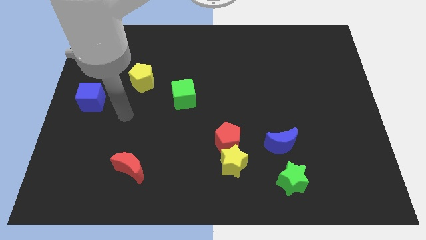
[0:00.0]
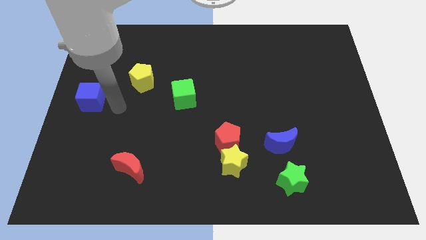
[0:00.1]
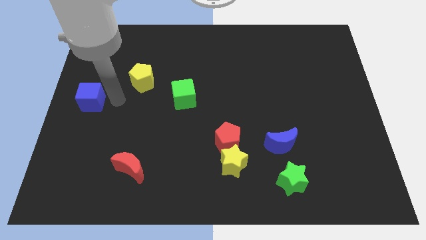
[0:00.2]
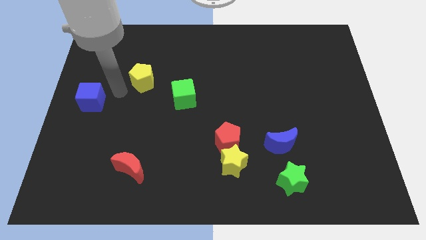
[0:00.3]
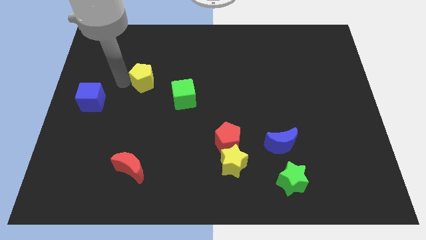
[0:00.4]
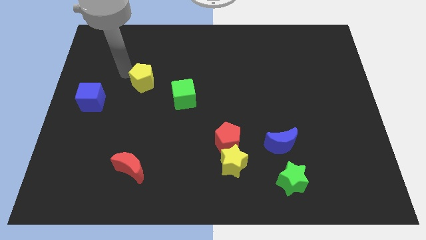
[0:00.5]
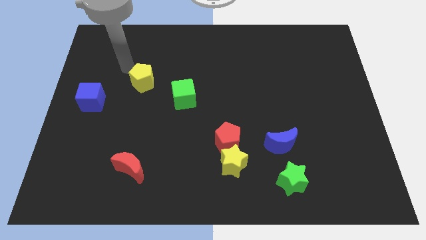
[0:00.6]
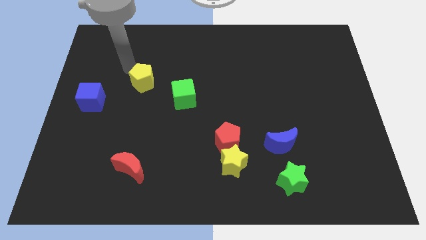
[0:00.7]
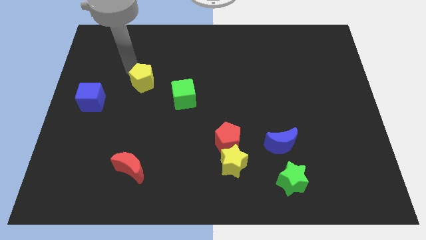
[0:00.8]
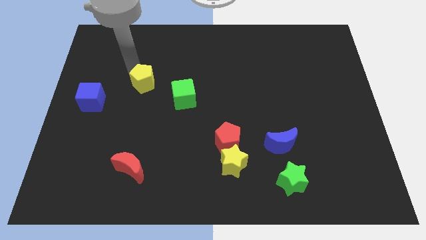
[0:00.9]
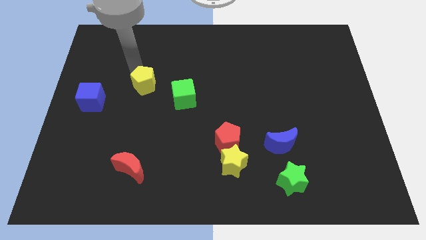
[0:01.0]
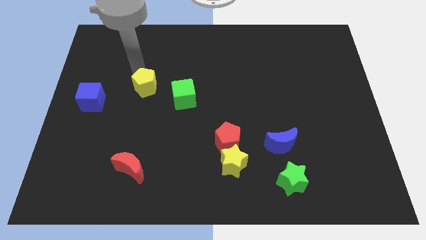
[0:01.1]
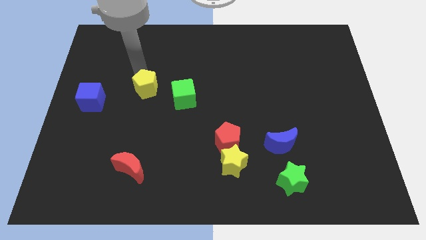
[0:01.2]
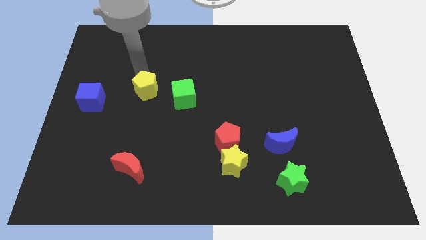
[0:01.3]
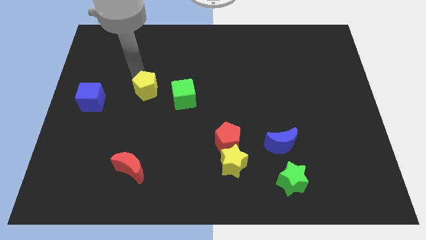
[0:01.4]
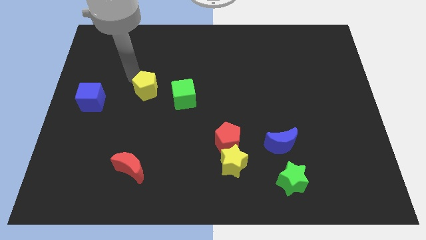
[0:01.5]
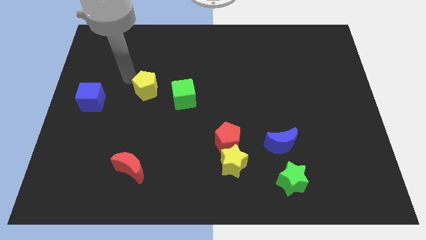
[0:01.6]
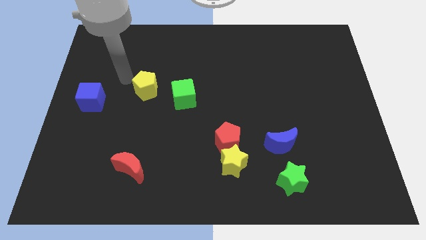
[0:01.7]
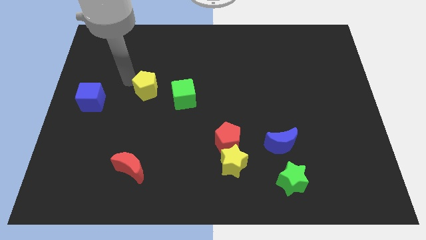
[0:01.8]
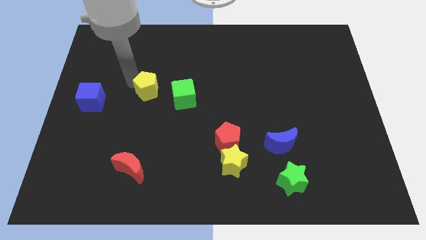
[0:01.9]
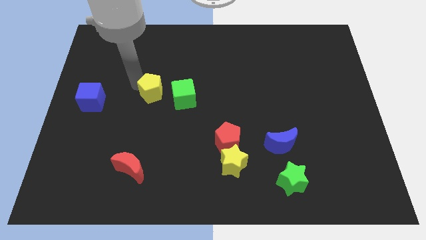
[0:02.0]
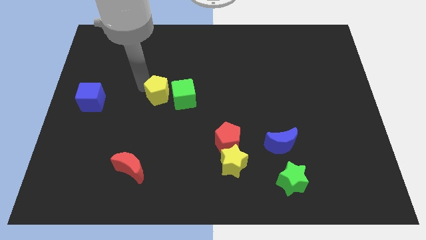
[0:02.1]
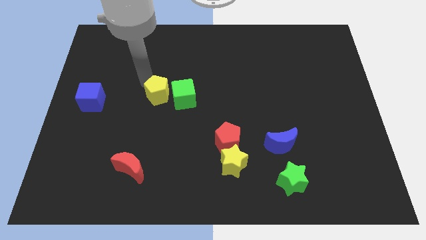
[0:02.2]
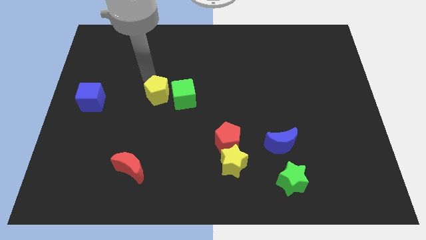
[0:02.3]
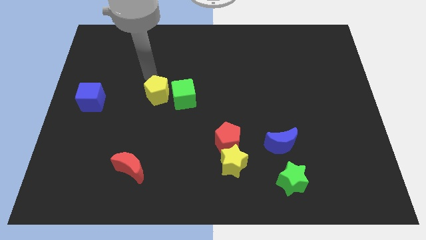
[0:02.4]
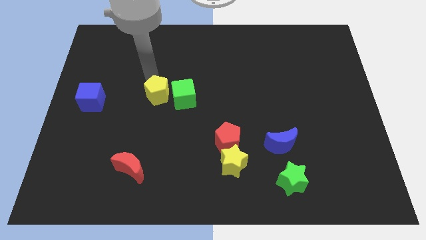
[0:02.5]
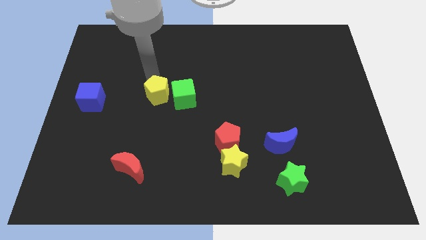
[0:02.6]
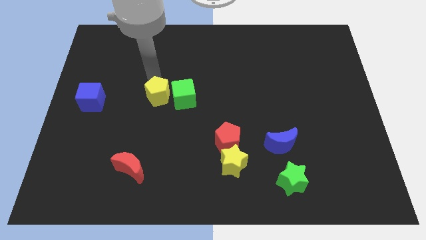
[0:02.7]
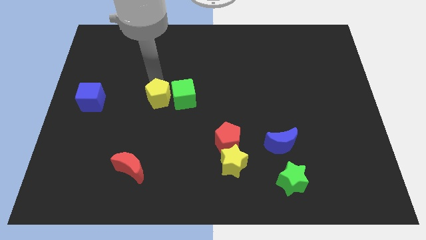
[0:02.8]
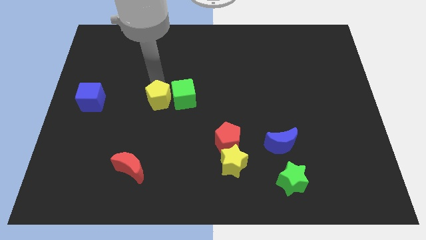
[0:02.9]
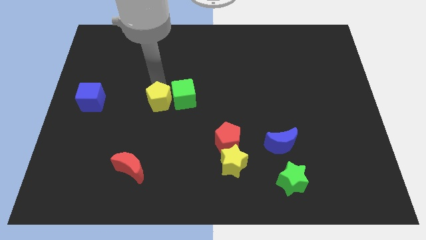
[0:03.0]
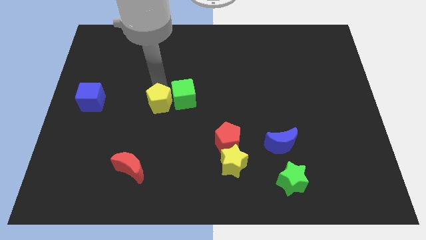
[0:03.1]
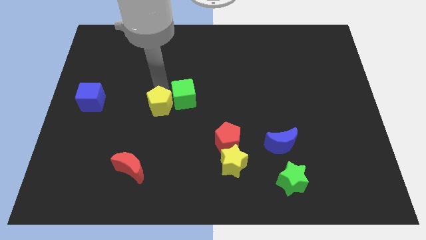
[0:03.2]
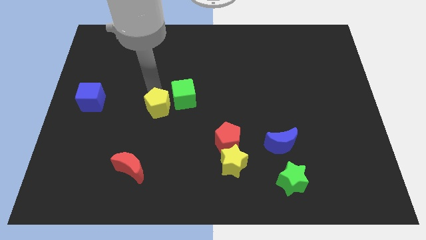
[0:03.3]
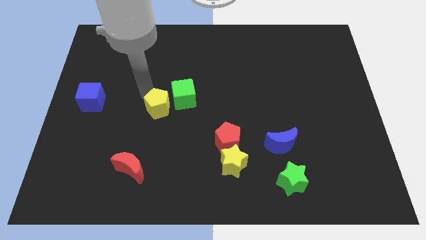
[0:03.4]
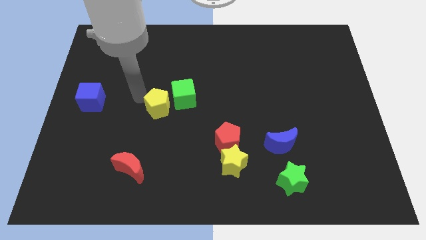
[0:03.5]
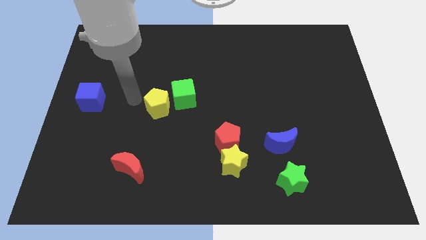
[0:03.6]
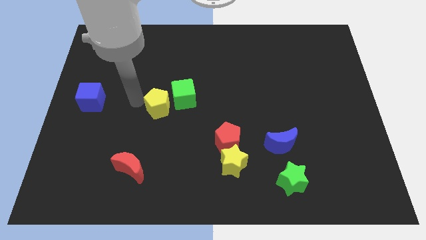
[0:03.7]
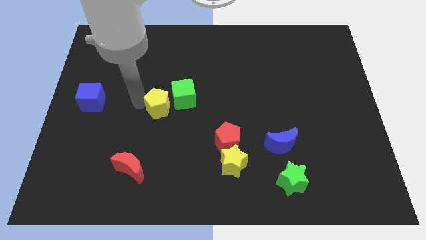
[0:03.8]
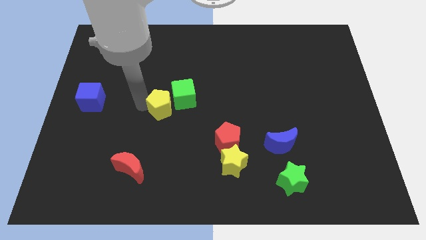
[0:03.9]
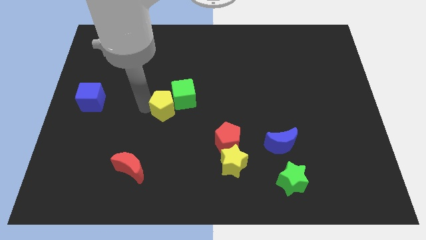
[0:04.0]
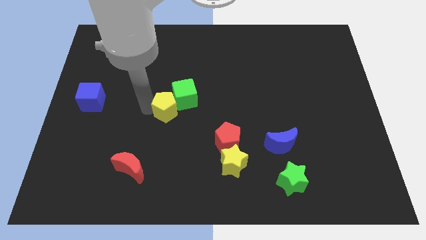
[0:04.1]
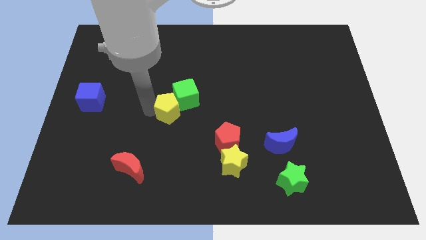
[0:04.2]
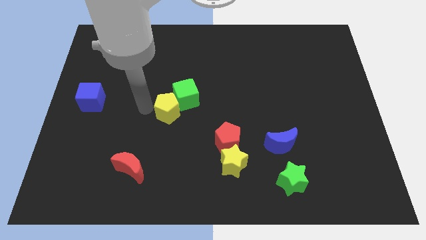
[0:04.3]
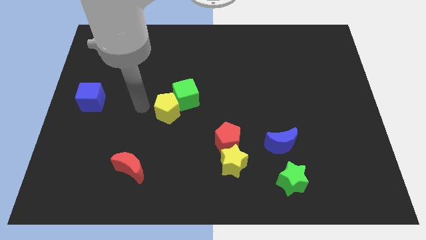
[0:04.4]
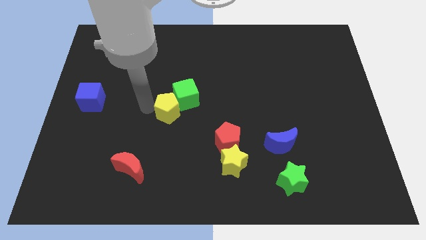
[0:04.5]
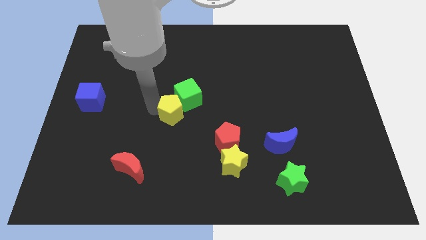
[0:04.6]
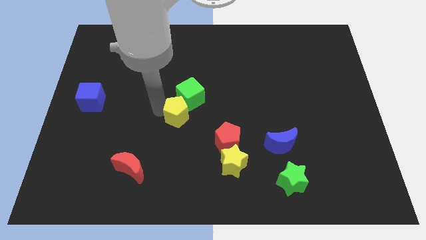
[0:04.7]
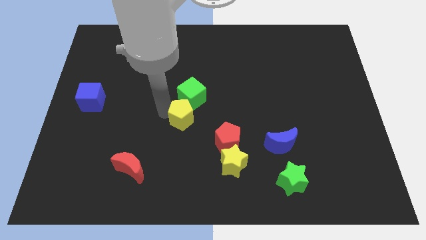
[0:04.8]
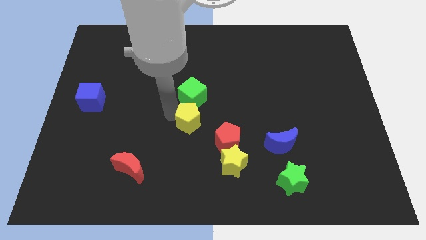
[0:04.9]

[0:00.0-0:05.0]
put the yellow pentagon to the top left side of the red pentagon

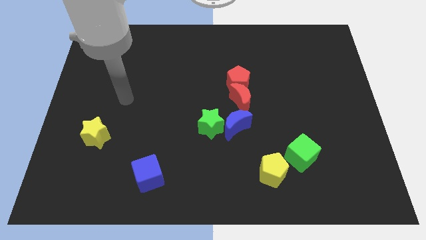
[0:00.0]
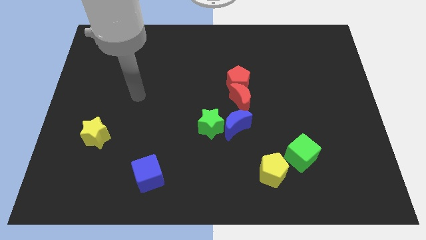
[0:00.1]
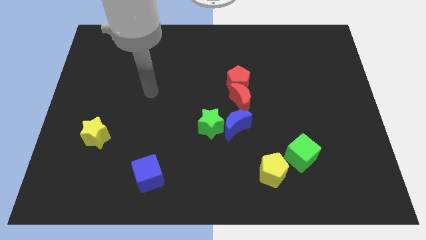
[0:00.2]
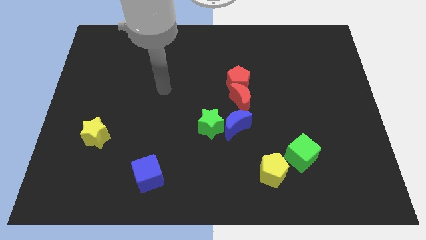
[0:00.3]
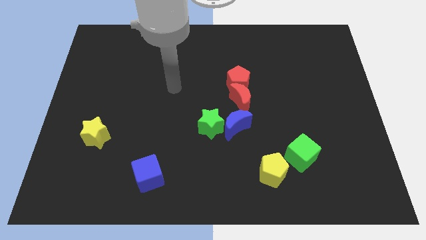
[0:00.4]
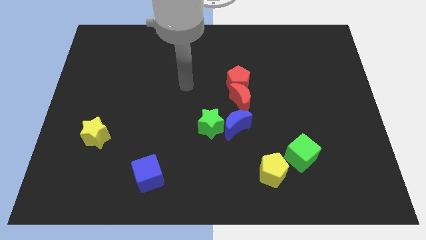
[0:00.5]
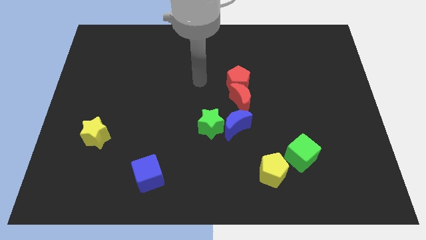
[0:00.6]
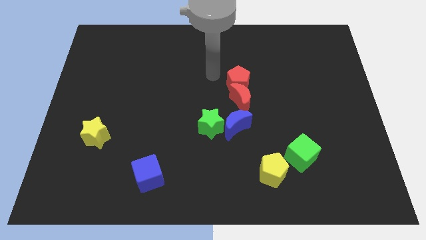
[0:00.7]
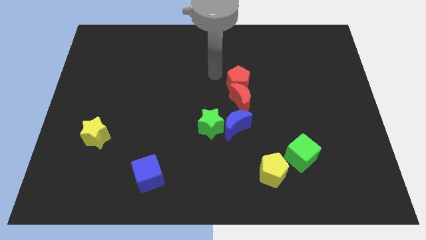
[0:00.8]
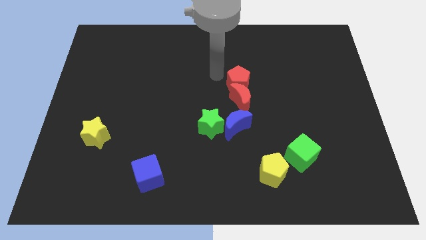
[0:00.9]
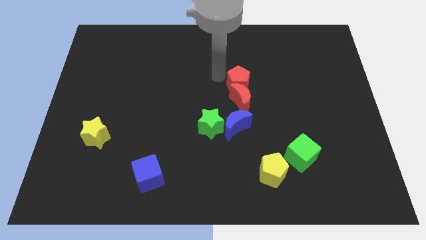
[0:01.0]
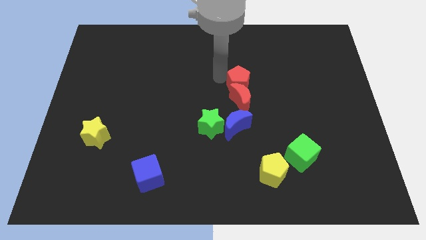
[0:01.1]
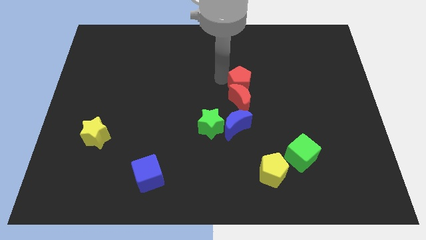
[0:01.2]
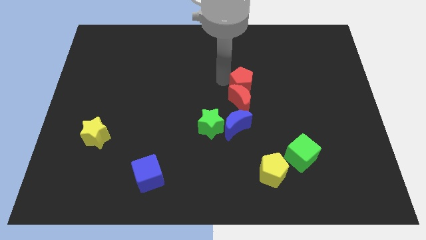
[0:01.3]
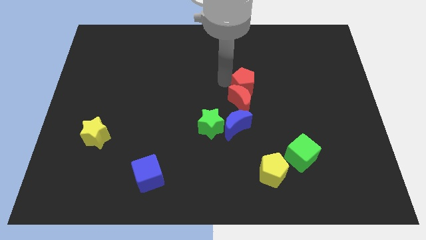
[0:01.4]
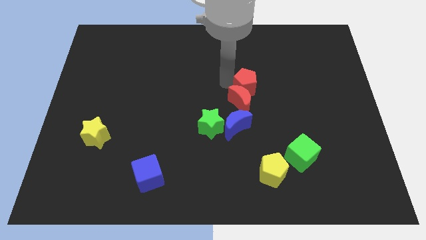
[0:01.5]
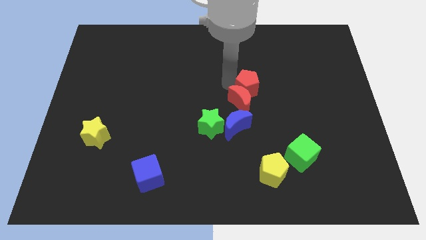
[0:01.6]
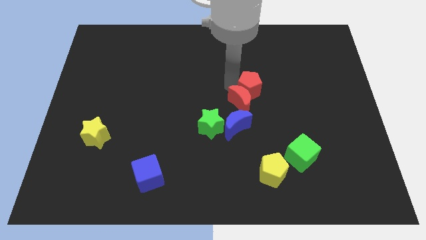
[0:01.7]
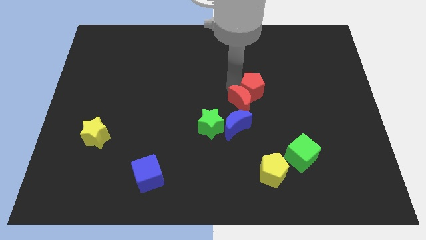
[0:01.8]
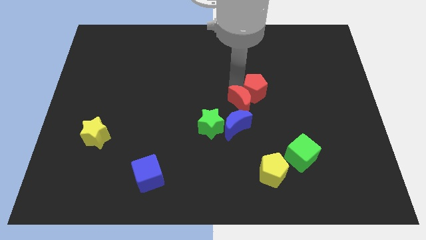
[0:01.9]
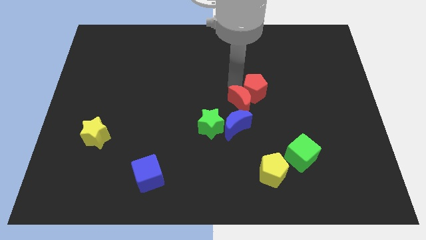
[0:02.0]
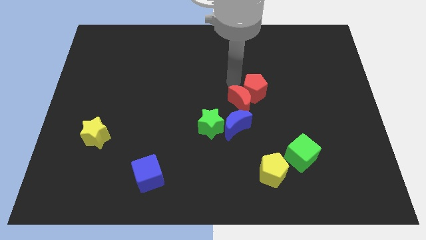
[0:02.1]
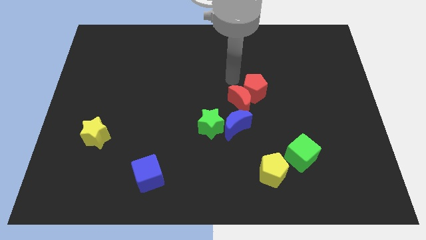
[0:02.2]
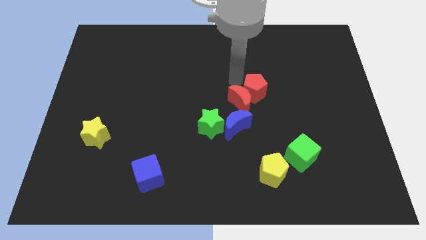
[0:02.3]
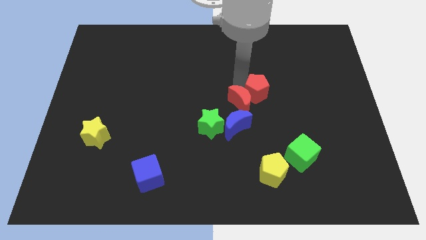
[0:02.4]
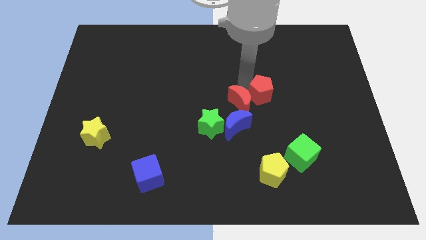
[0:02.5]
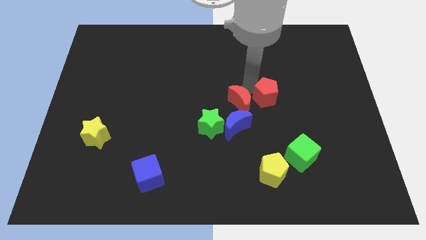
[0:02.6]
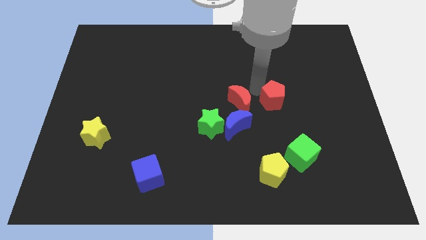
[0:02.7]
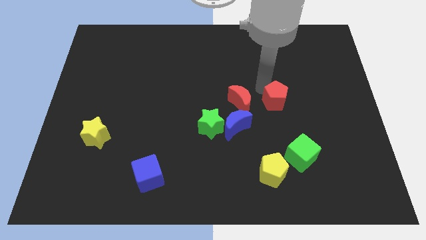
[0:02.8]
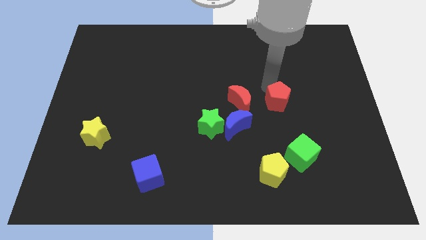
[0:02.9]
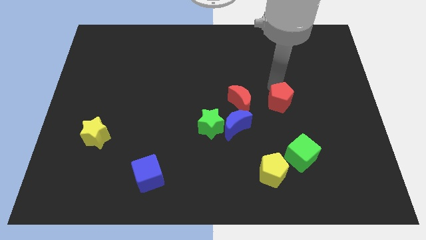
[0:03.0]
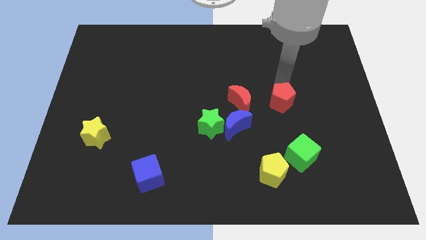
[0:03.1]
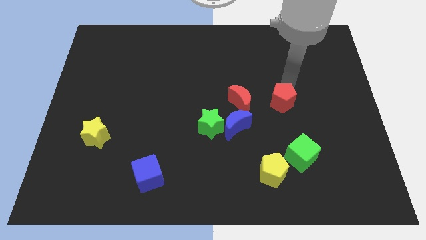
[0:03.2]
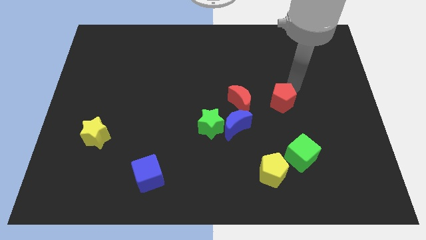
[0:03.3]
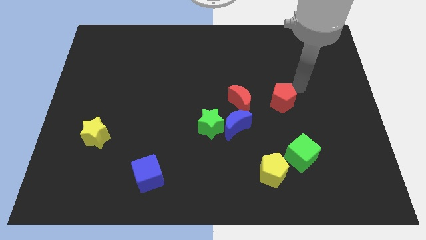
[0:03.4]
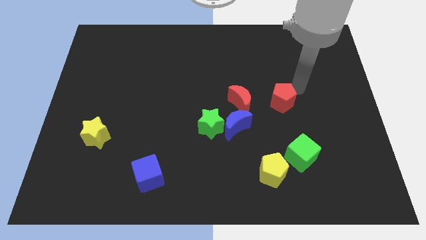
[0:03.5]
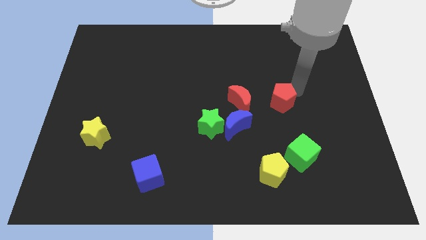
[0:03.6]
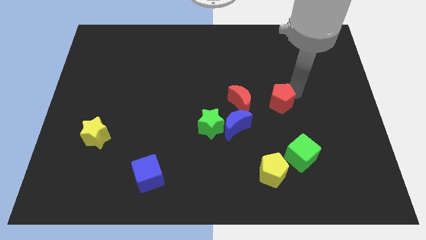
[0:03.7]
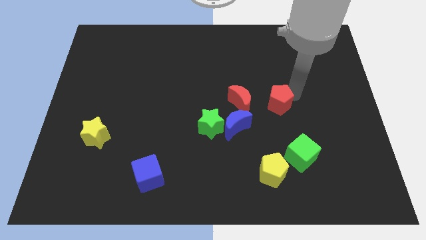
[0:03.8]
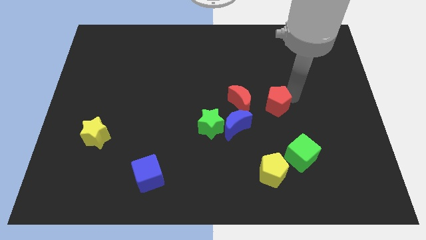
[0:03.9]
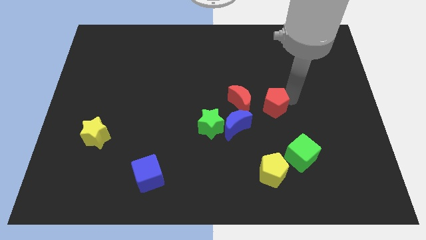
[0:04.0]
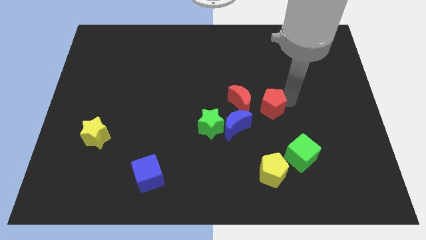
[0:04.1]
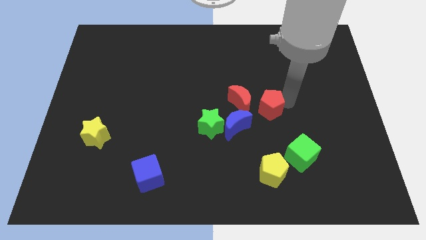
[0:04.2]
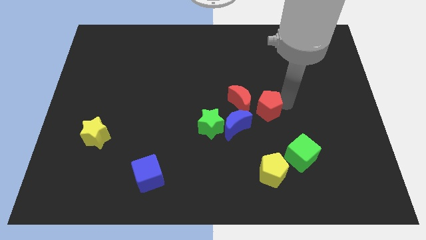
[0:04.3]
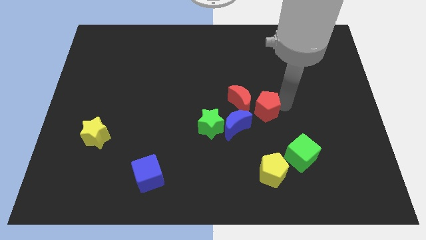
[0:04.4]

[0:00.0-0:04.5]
put the red pentagon above the yellow pentagon
